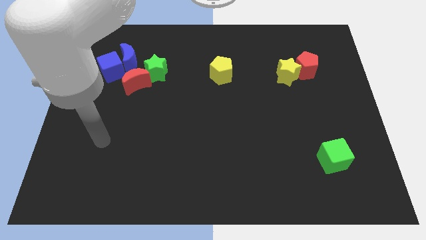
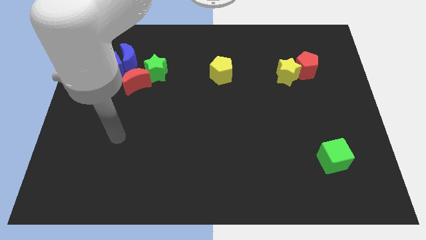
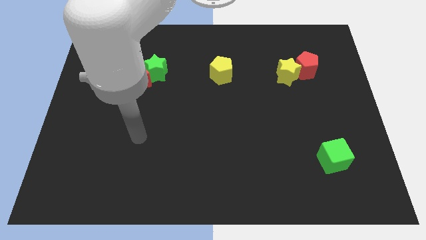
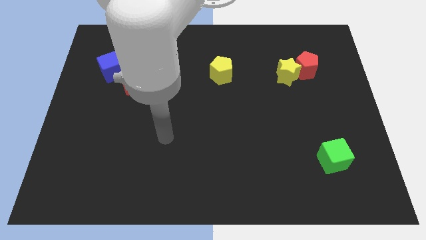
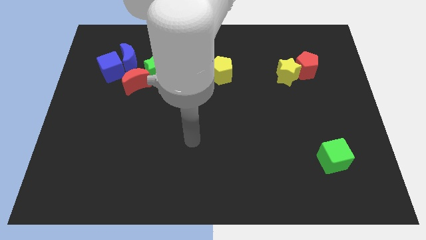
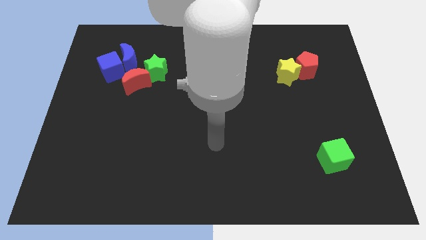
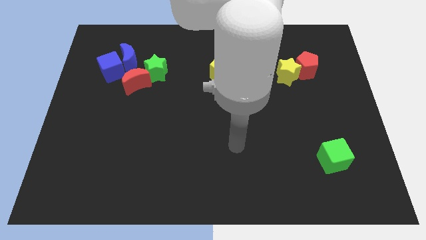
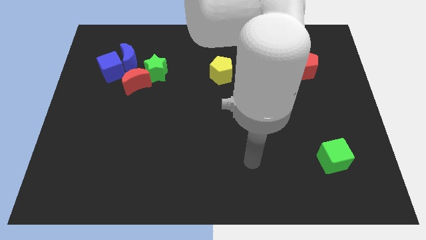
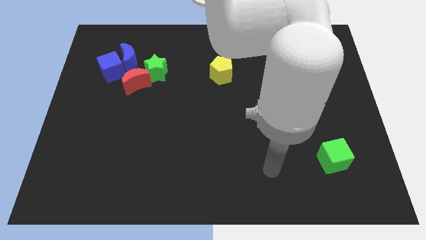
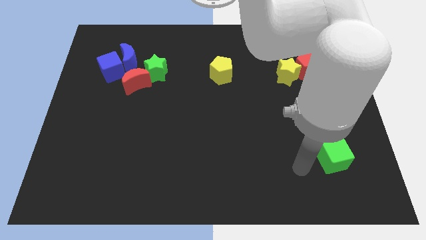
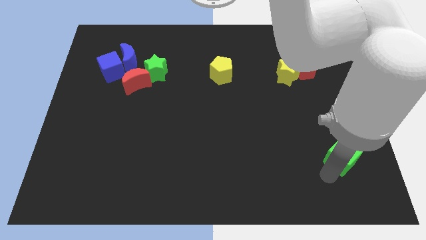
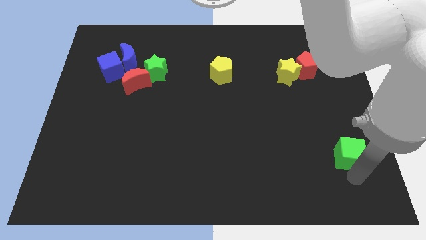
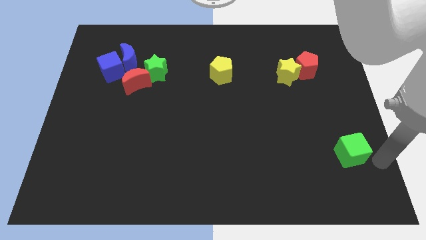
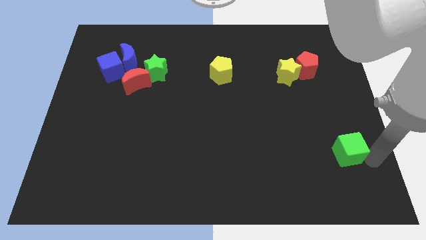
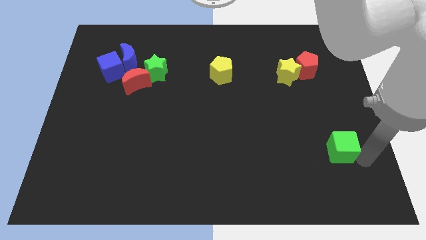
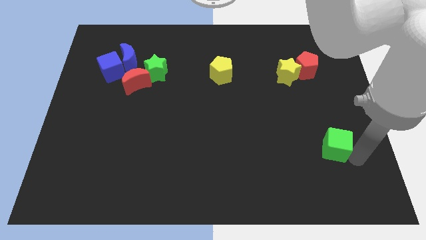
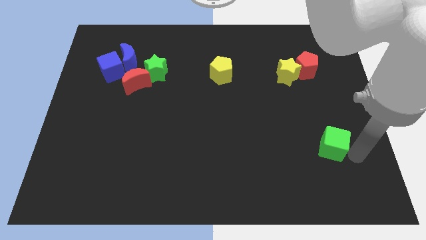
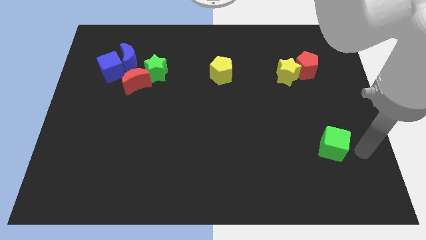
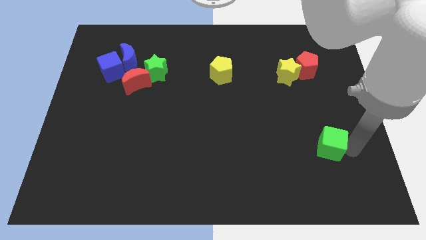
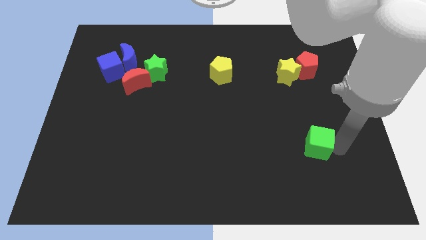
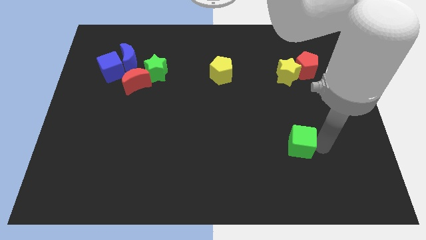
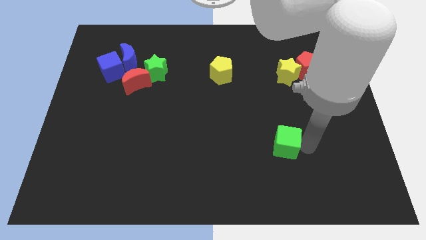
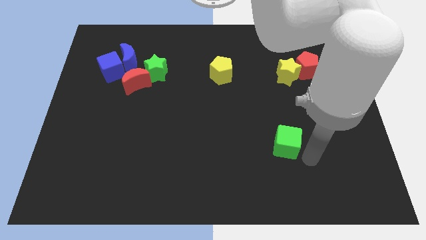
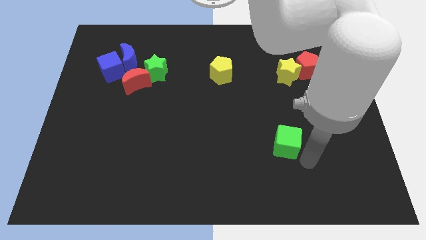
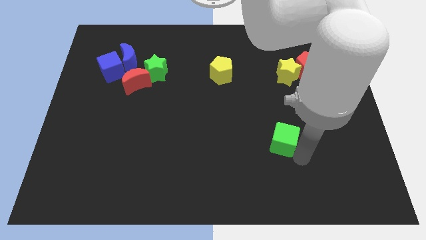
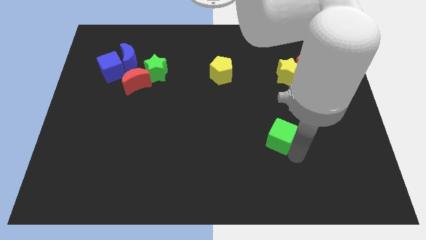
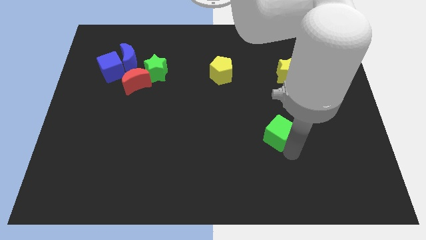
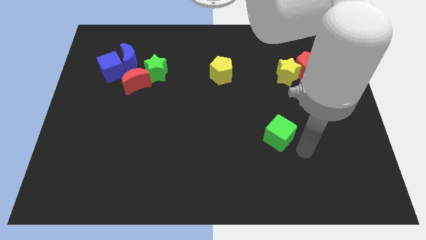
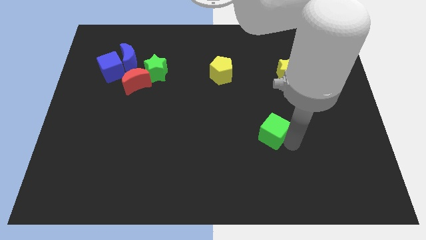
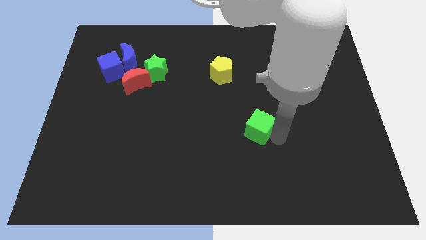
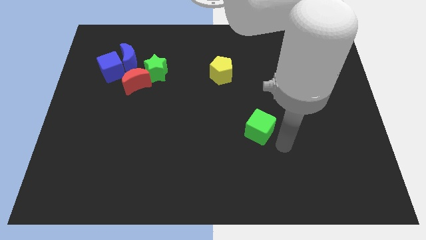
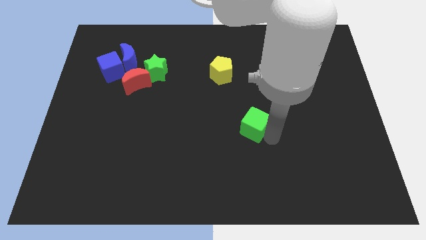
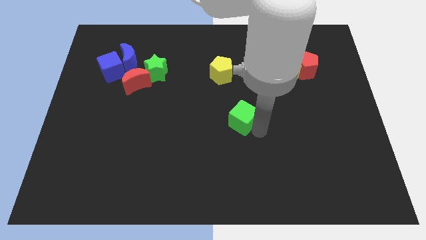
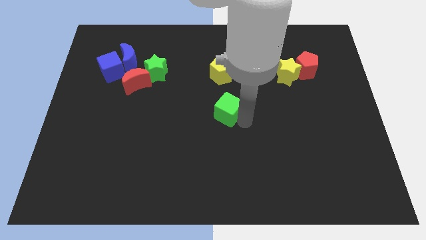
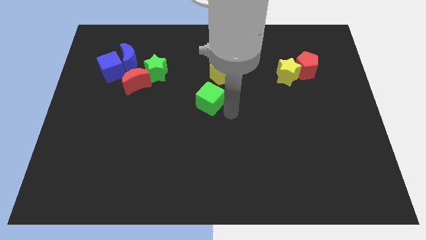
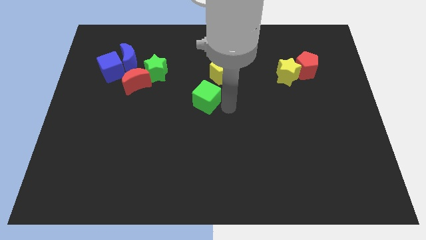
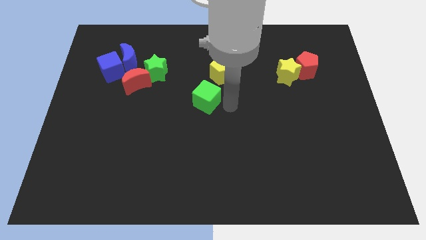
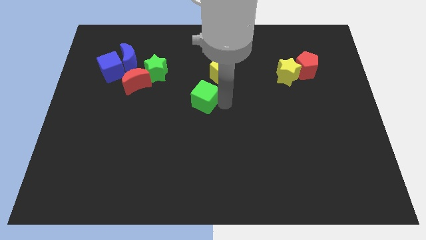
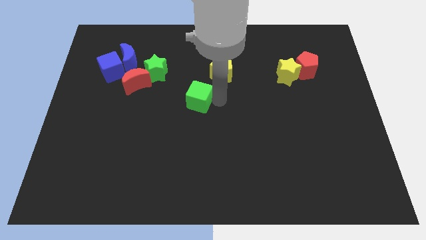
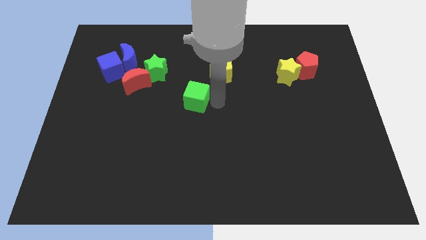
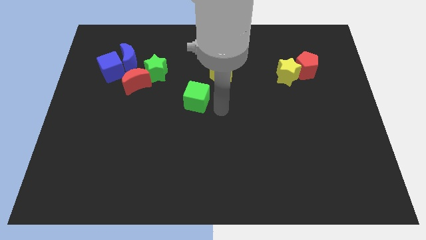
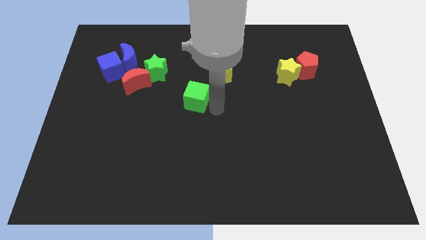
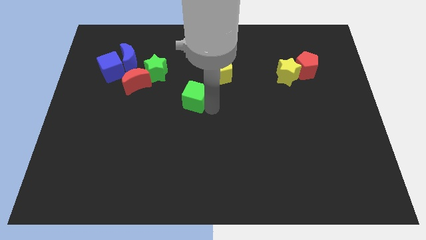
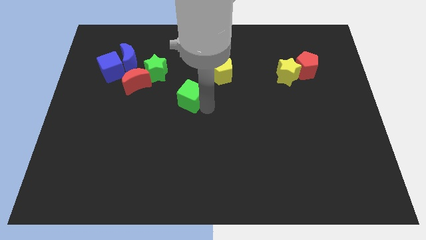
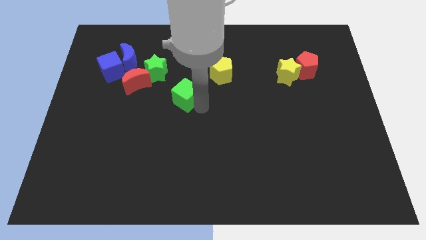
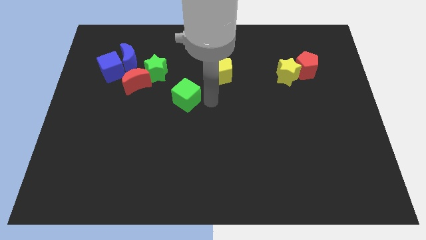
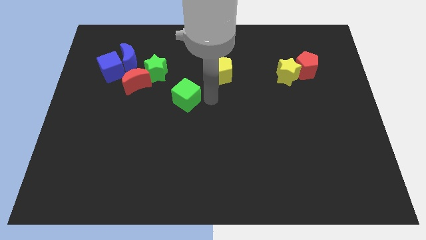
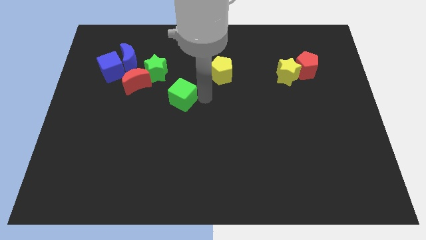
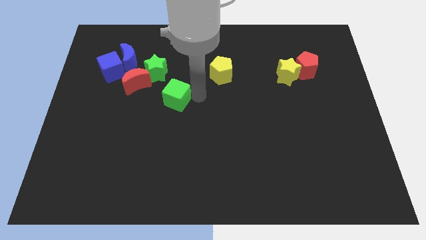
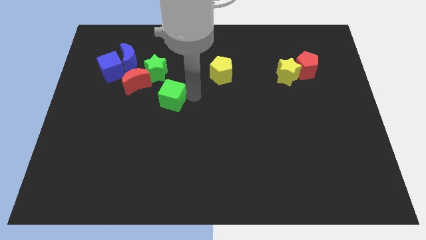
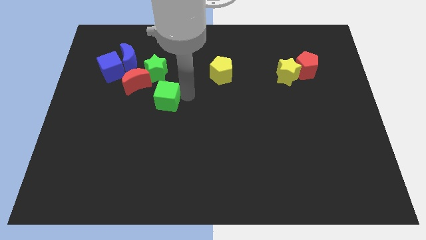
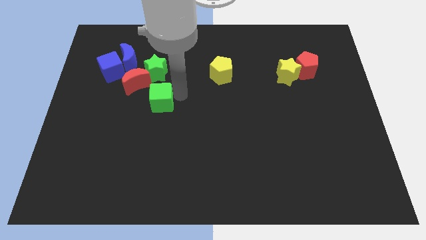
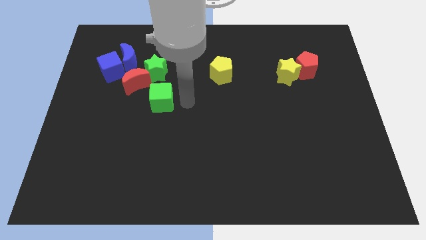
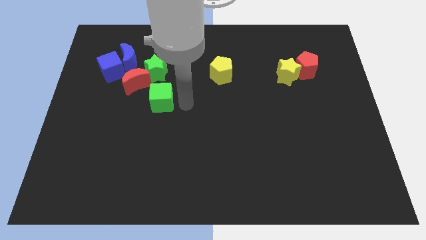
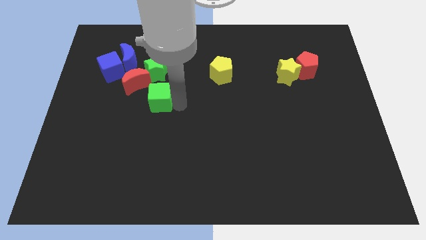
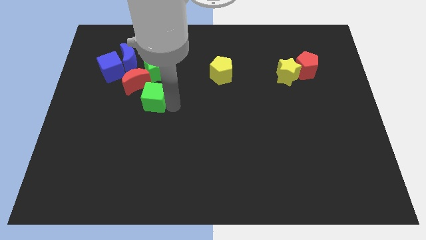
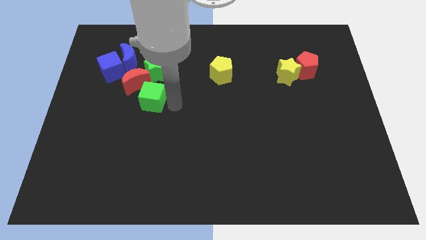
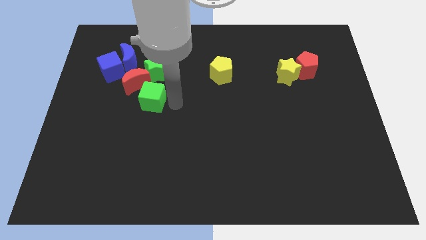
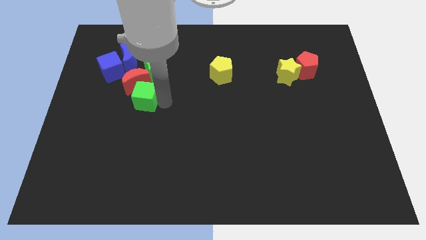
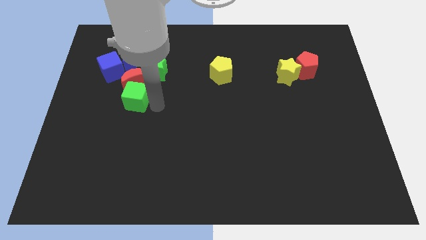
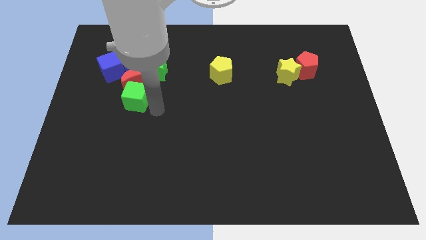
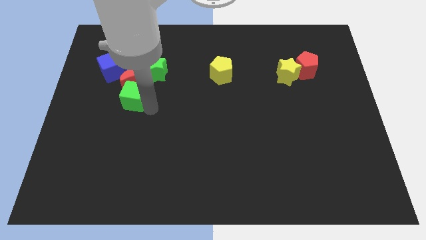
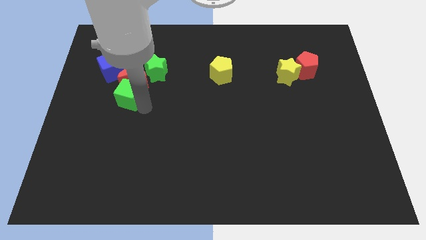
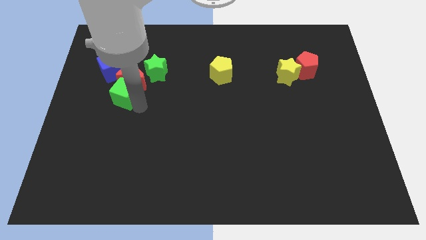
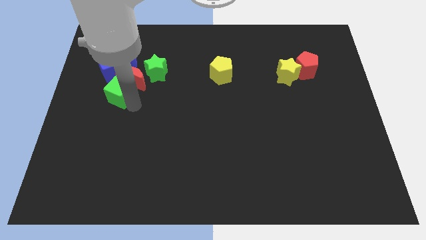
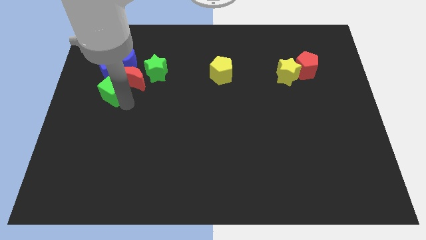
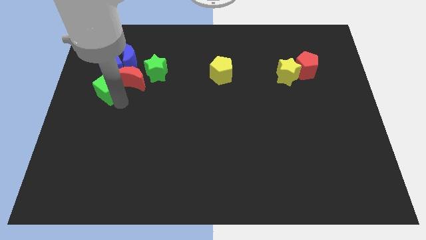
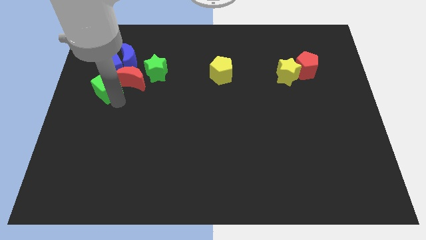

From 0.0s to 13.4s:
slide the green cube to the bottom left of the blue moon

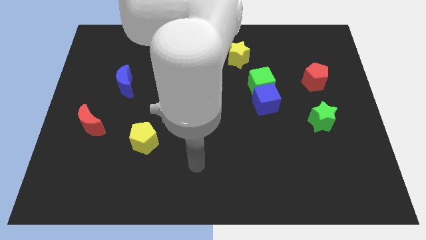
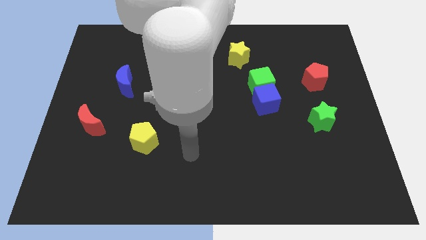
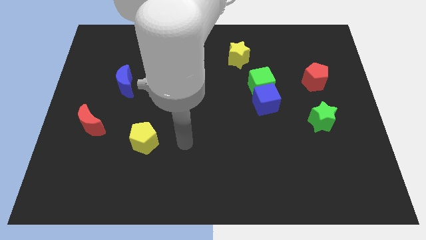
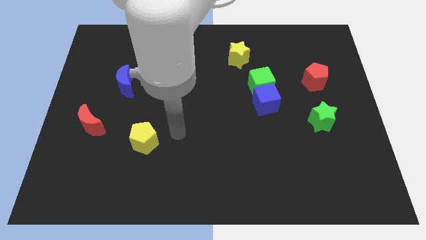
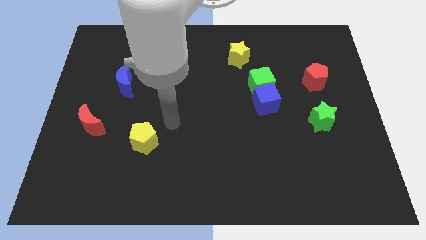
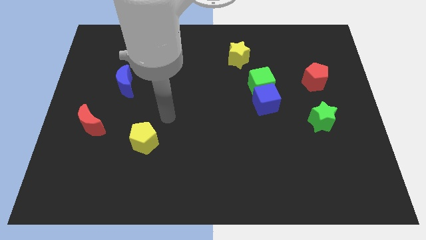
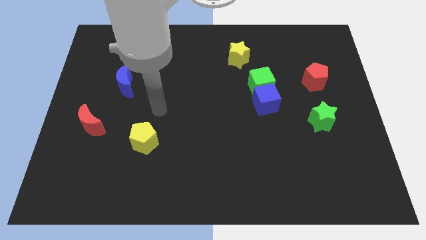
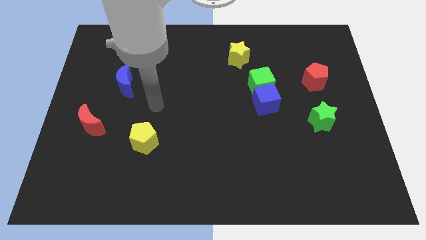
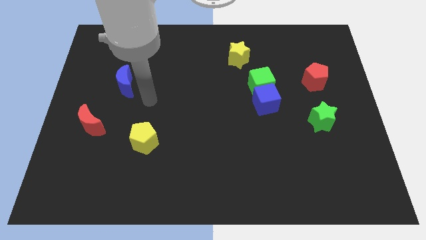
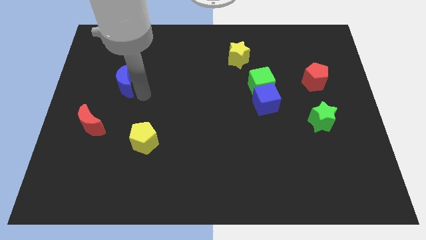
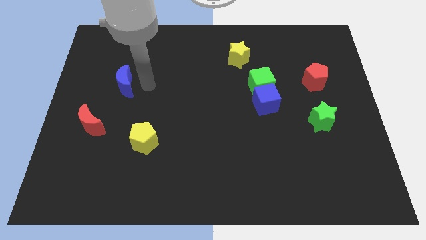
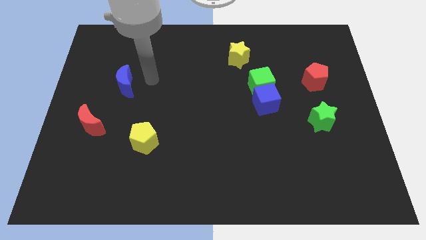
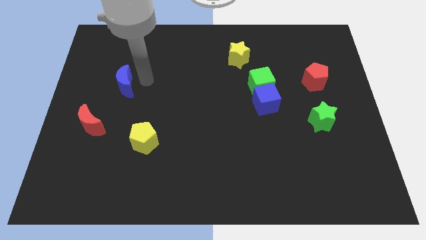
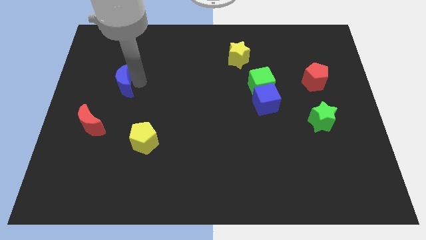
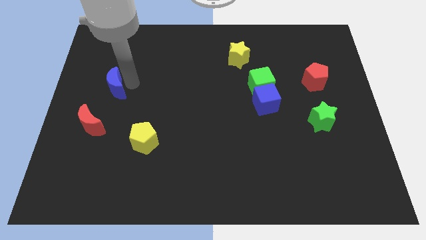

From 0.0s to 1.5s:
push the blue moon to the top side of the red moon
